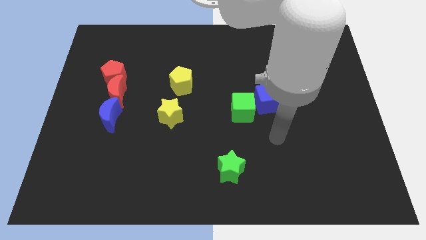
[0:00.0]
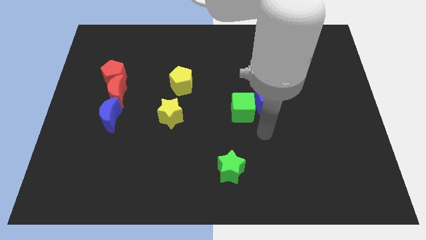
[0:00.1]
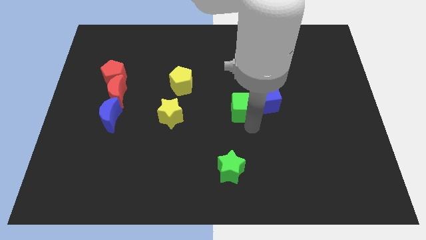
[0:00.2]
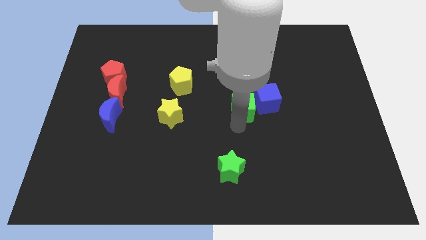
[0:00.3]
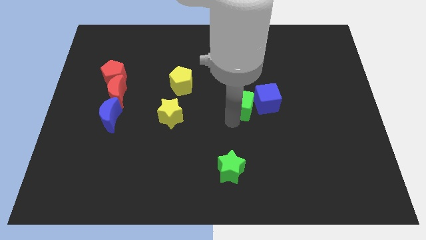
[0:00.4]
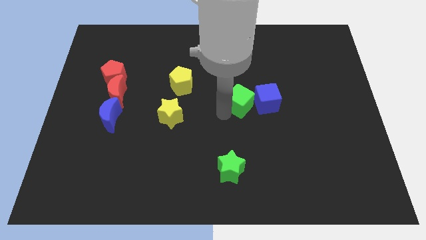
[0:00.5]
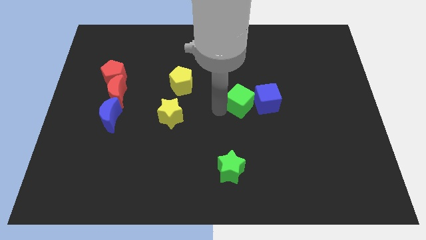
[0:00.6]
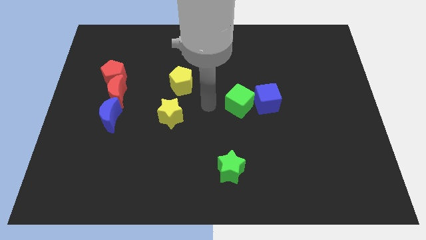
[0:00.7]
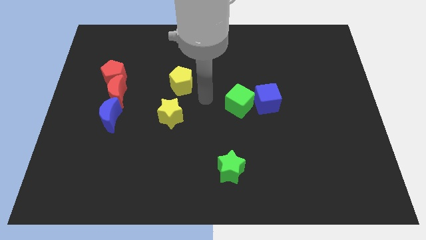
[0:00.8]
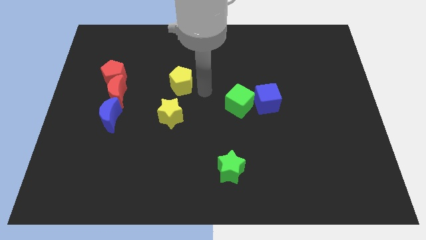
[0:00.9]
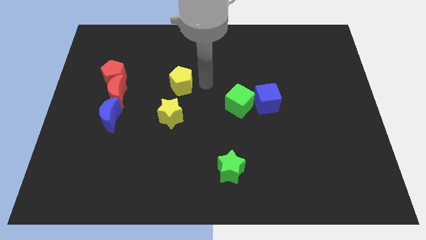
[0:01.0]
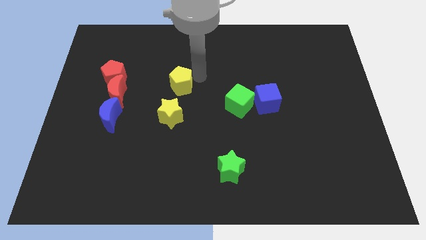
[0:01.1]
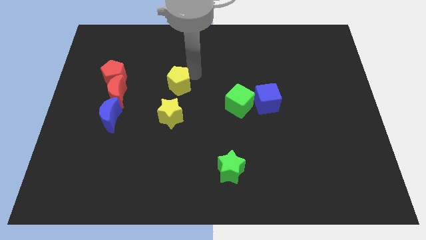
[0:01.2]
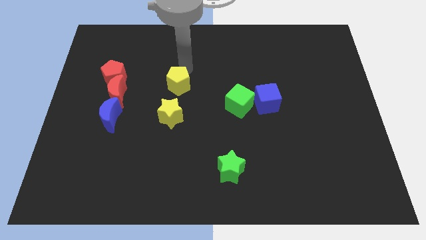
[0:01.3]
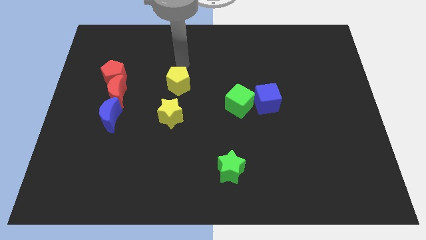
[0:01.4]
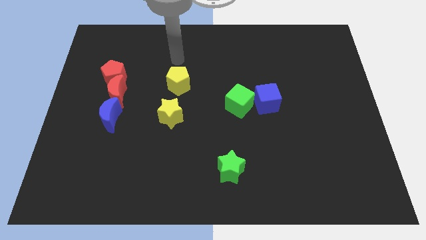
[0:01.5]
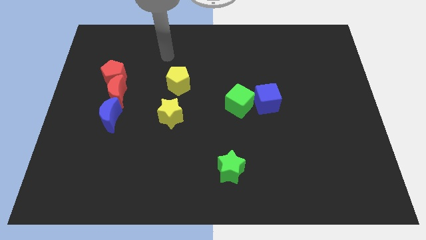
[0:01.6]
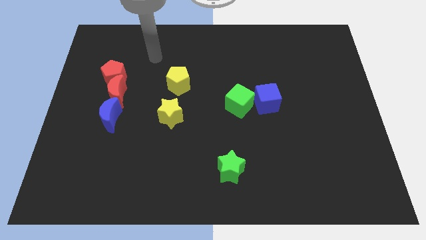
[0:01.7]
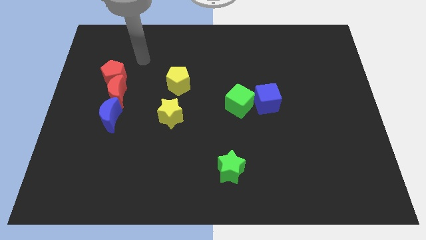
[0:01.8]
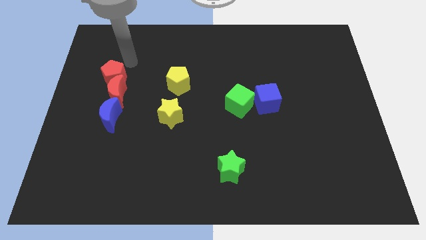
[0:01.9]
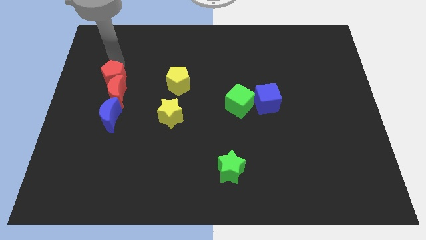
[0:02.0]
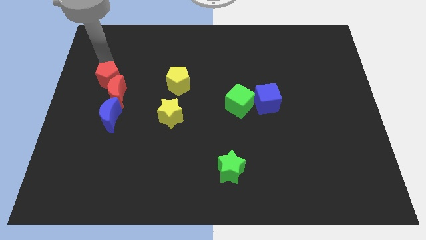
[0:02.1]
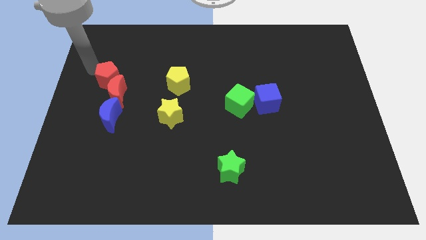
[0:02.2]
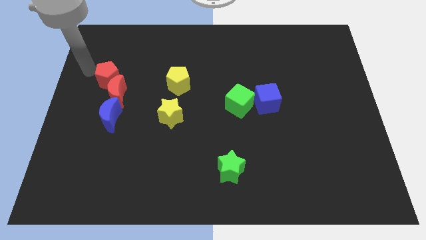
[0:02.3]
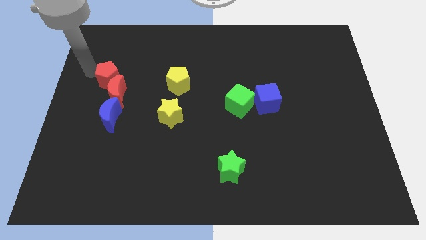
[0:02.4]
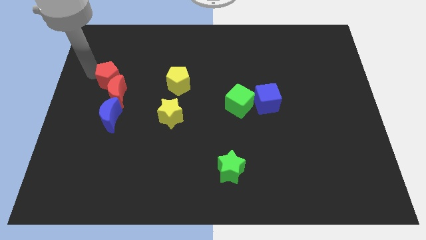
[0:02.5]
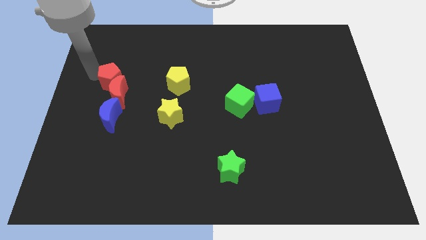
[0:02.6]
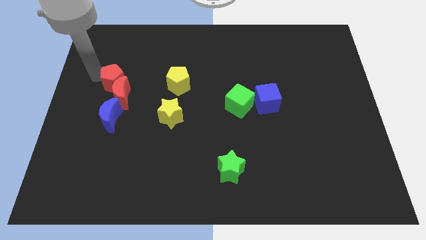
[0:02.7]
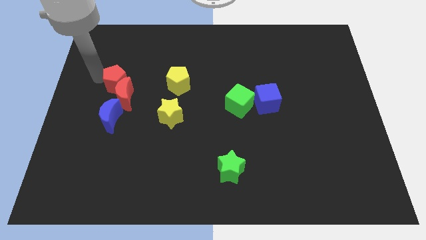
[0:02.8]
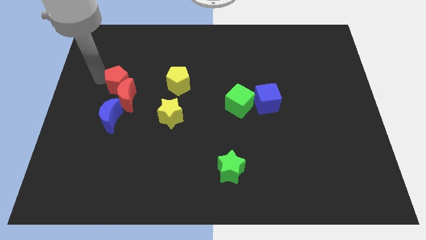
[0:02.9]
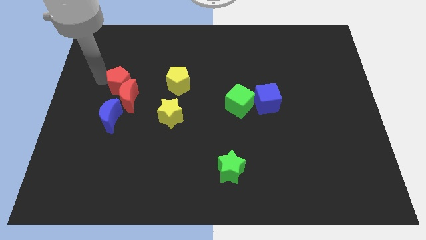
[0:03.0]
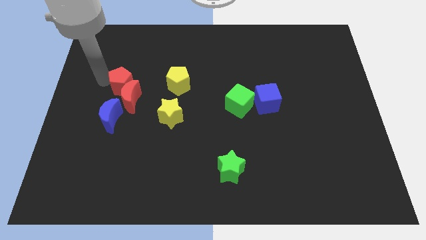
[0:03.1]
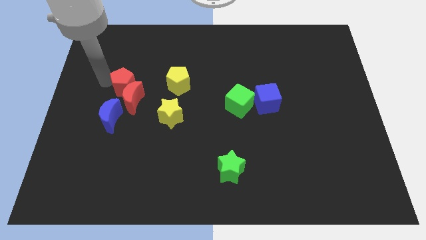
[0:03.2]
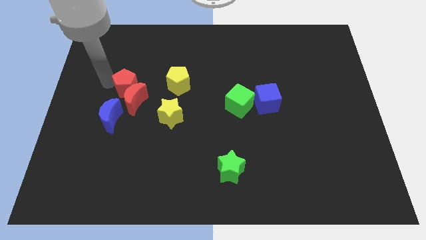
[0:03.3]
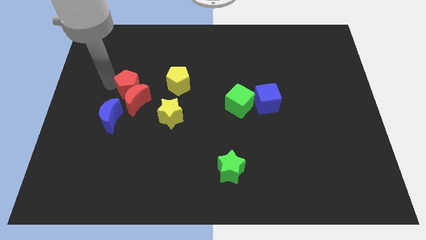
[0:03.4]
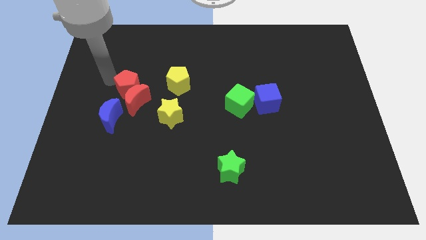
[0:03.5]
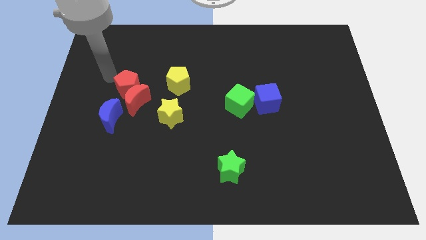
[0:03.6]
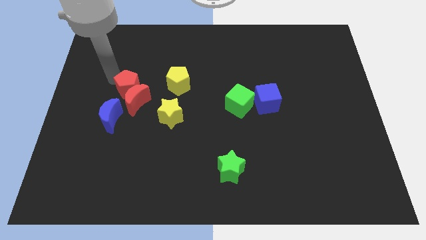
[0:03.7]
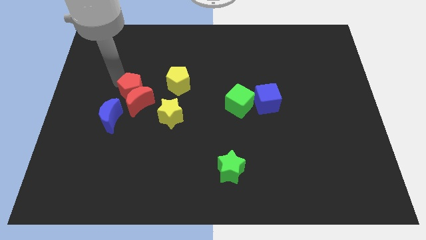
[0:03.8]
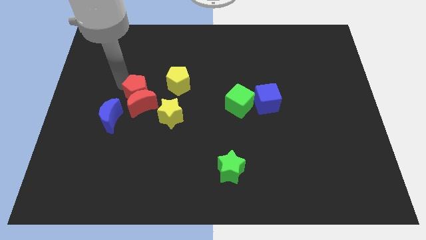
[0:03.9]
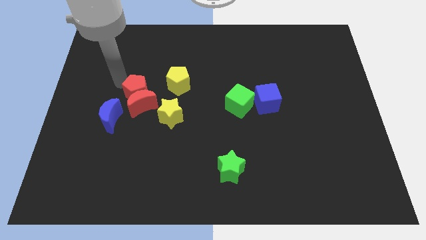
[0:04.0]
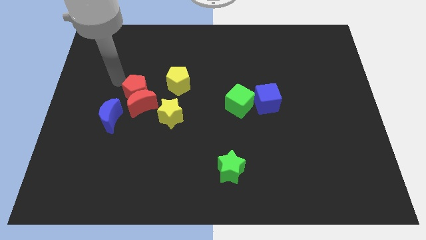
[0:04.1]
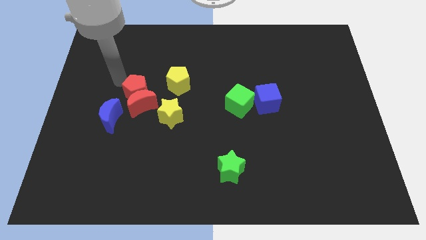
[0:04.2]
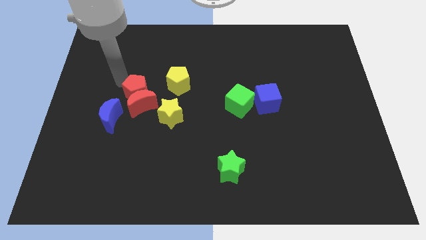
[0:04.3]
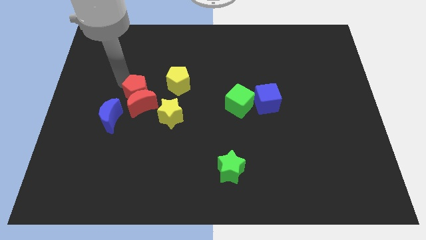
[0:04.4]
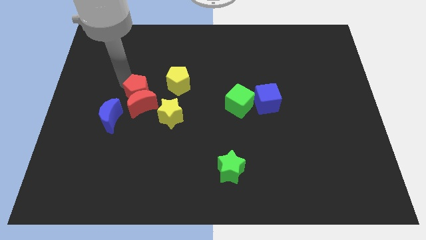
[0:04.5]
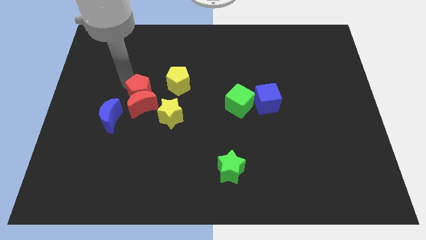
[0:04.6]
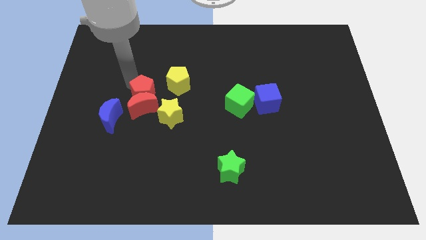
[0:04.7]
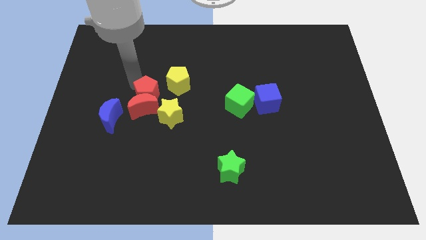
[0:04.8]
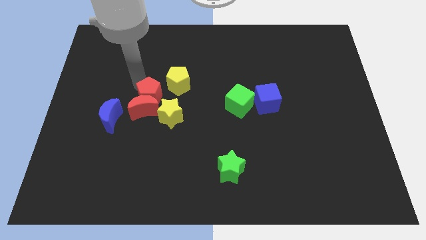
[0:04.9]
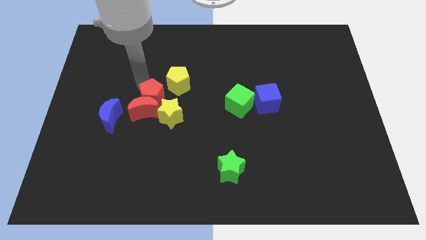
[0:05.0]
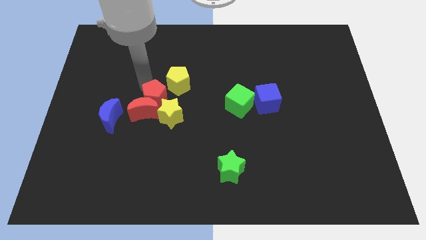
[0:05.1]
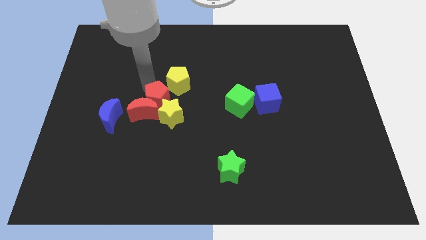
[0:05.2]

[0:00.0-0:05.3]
move the red pentagon close to the yellow star
